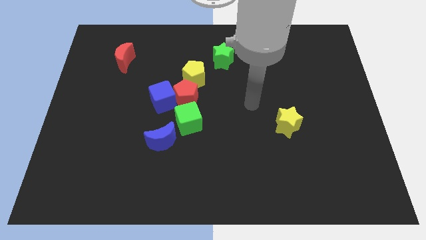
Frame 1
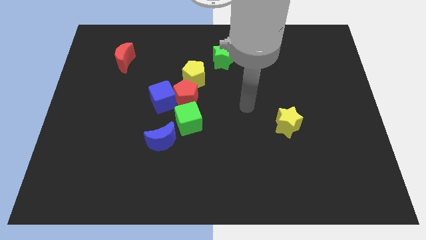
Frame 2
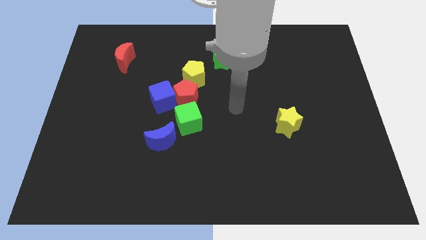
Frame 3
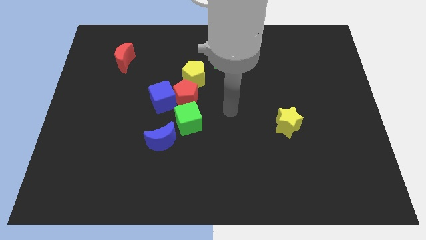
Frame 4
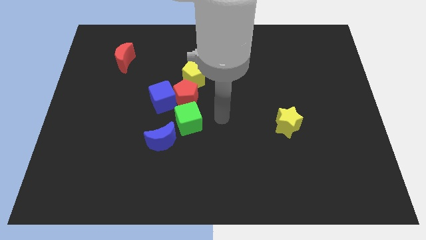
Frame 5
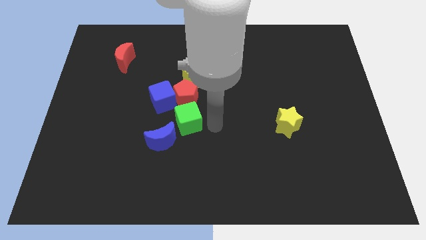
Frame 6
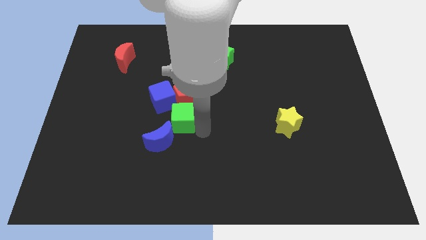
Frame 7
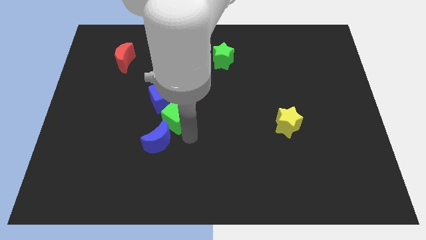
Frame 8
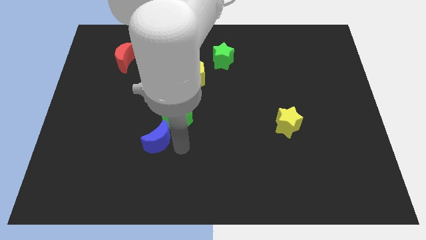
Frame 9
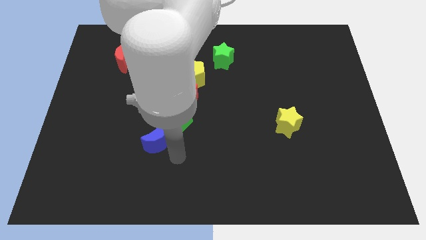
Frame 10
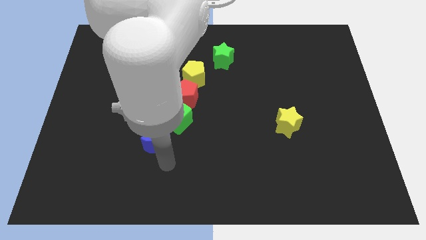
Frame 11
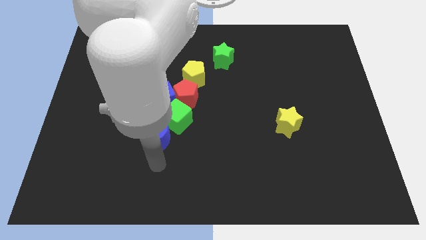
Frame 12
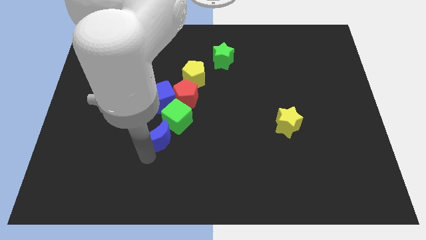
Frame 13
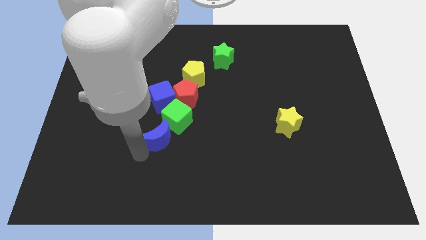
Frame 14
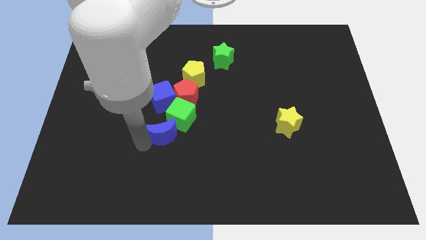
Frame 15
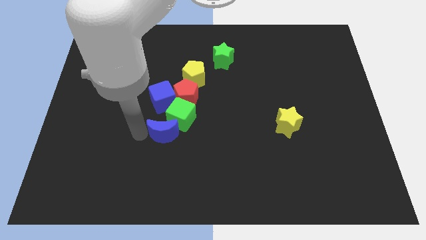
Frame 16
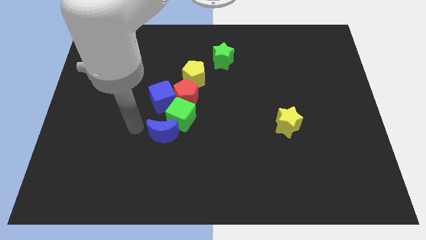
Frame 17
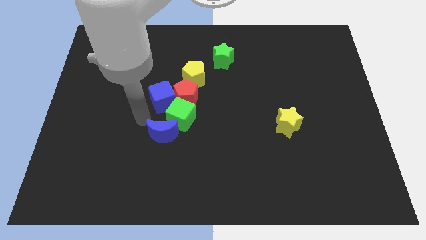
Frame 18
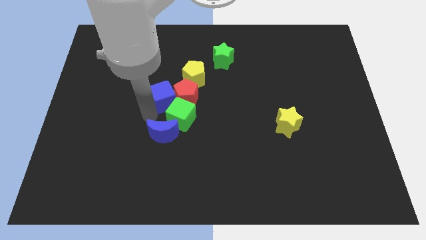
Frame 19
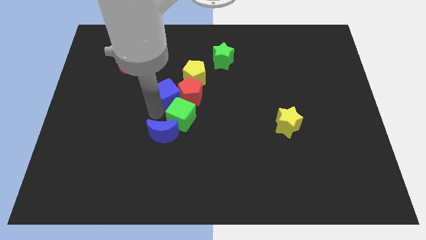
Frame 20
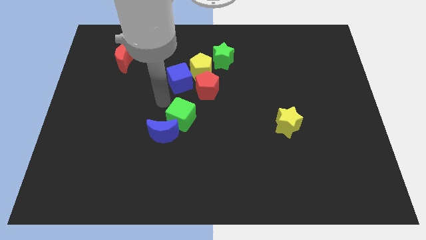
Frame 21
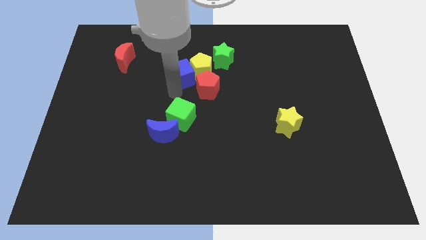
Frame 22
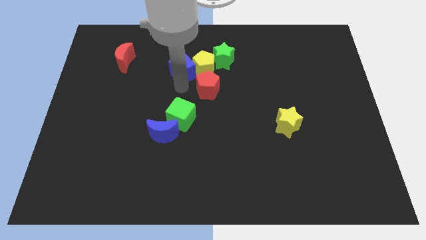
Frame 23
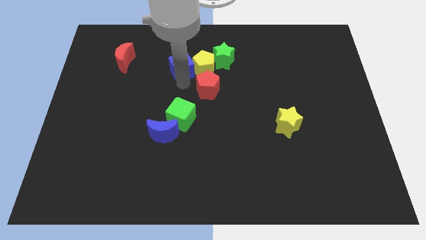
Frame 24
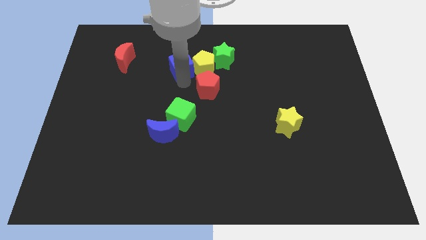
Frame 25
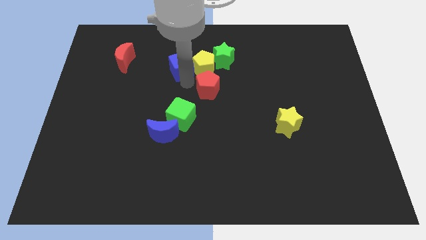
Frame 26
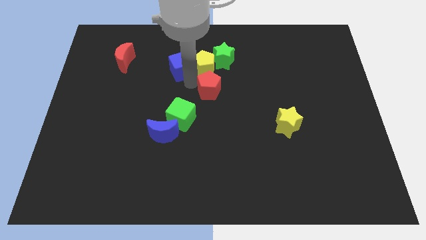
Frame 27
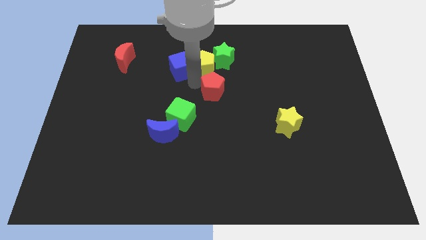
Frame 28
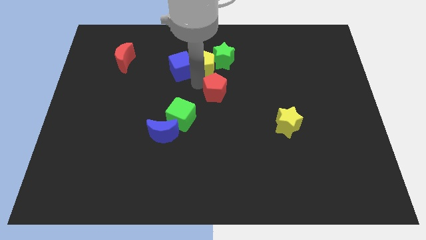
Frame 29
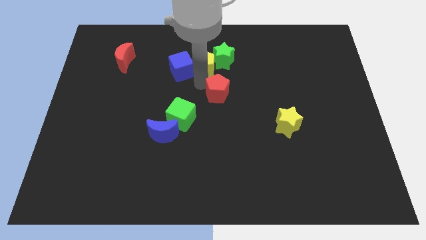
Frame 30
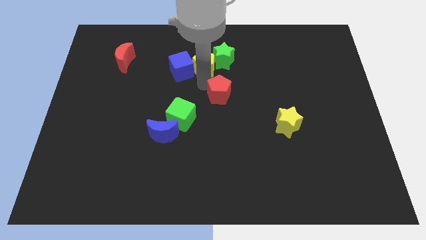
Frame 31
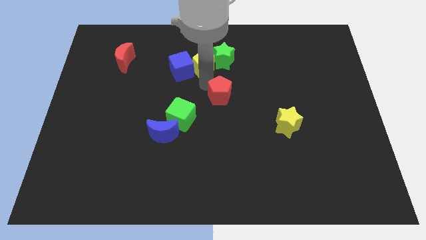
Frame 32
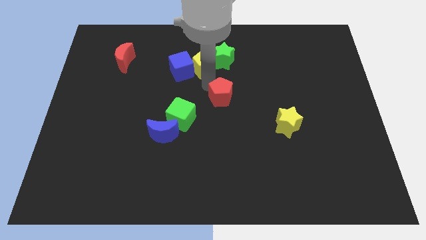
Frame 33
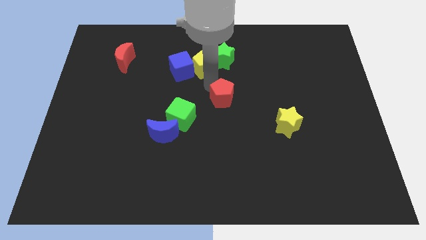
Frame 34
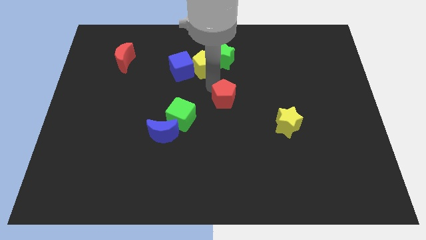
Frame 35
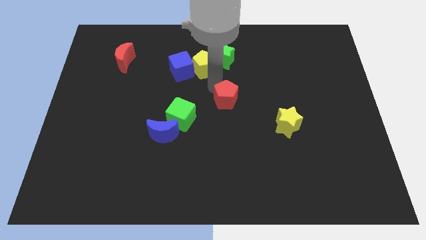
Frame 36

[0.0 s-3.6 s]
separate the red pentagon from the clump

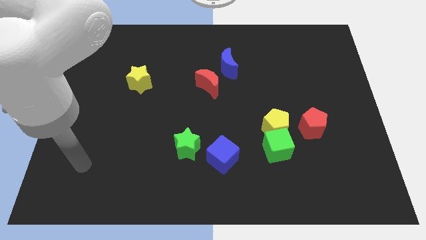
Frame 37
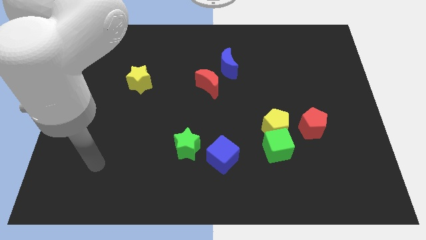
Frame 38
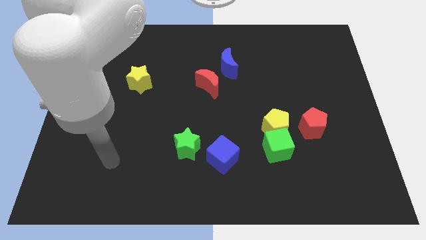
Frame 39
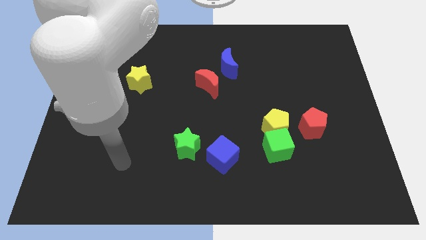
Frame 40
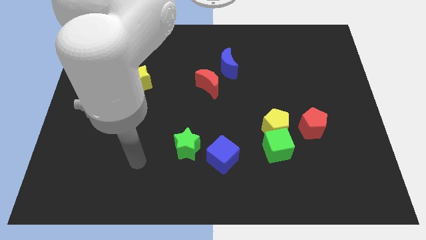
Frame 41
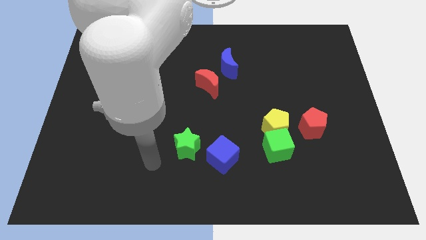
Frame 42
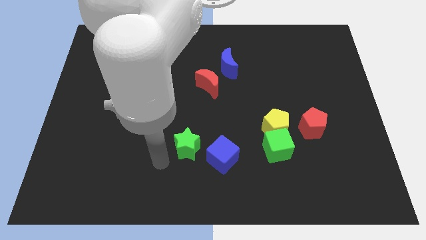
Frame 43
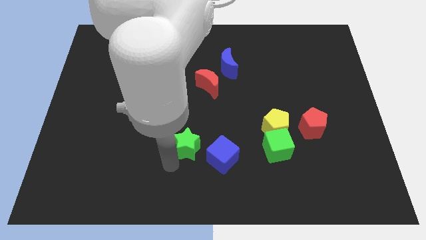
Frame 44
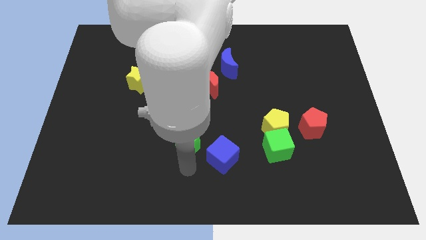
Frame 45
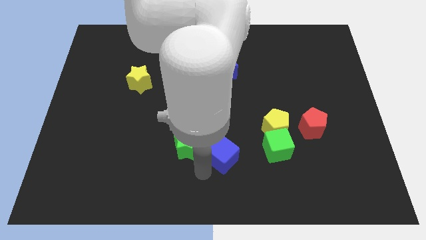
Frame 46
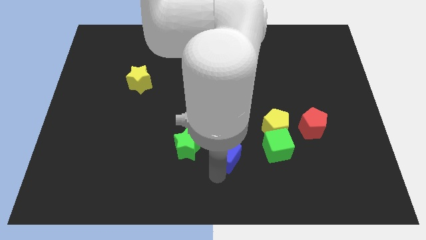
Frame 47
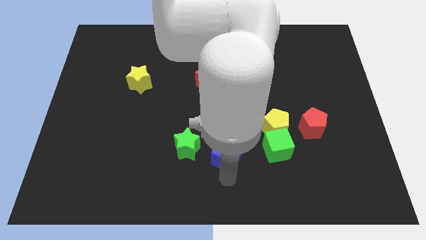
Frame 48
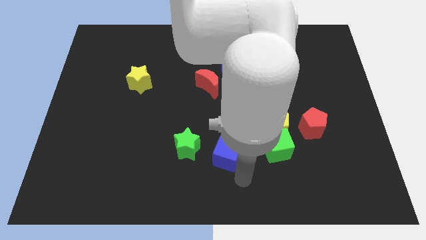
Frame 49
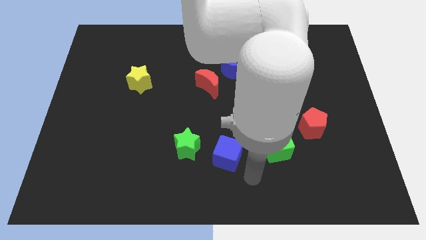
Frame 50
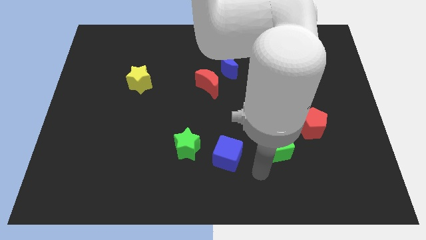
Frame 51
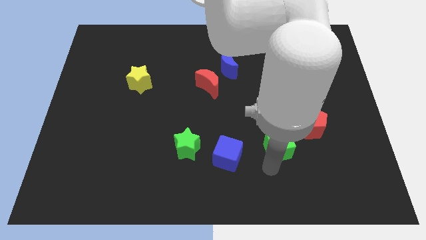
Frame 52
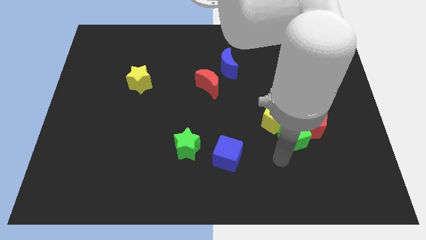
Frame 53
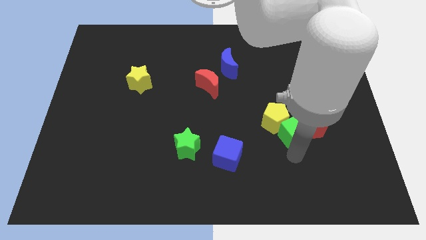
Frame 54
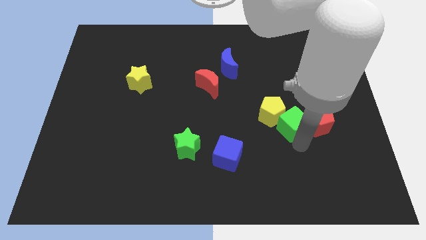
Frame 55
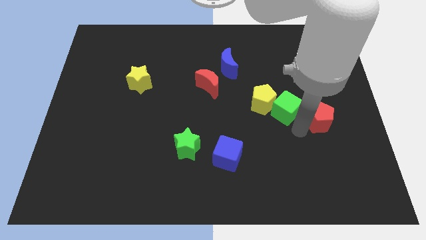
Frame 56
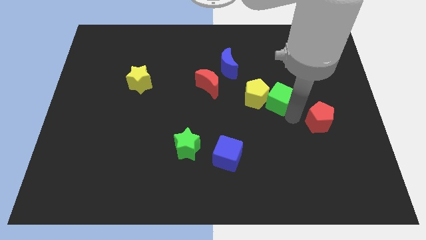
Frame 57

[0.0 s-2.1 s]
separate the yellow pentagon from the green cube and red pentagon

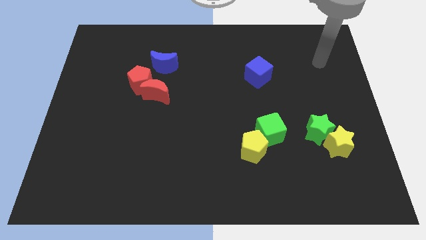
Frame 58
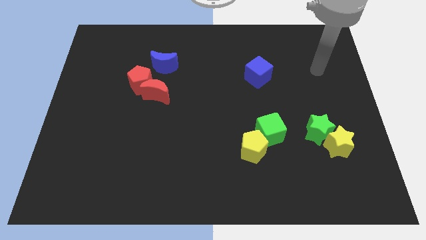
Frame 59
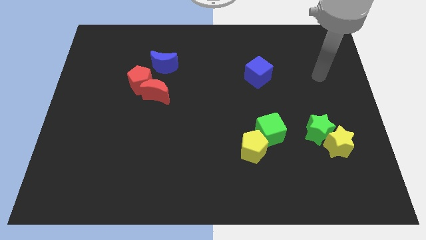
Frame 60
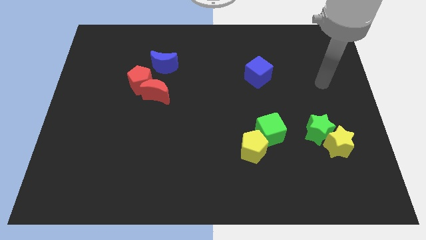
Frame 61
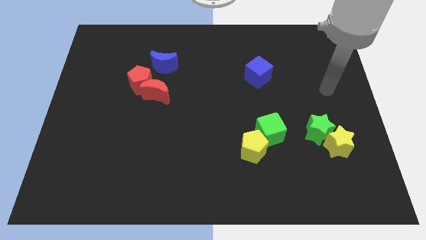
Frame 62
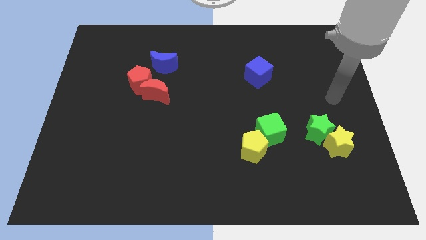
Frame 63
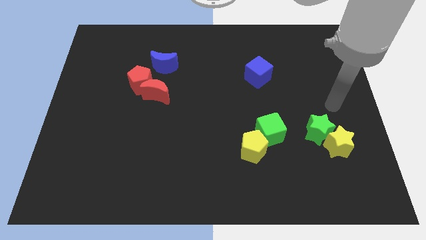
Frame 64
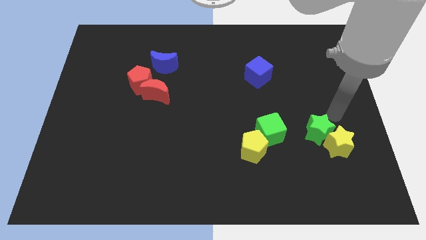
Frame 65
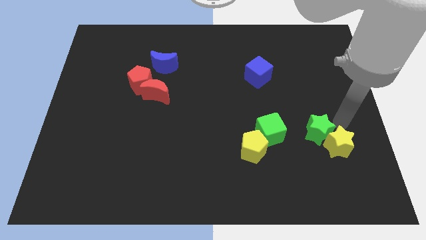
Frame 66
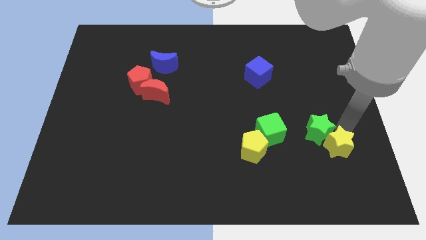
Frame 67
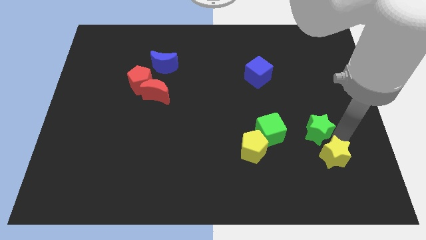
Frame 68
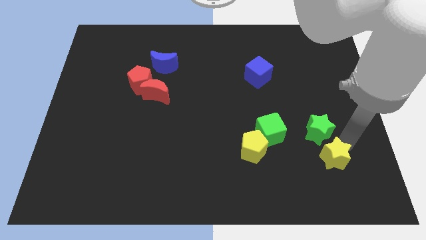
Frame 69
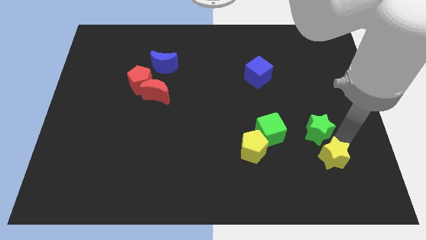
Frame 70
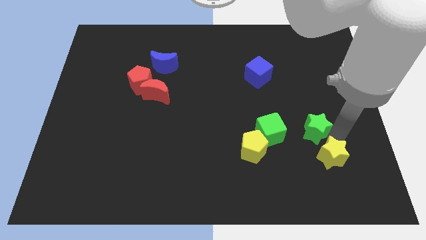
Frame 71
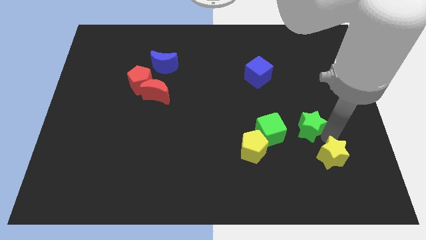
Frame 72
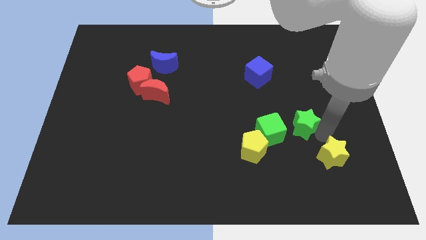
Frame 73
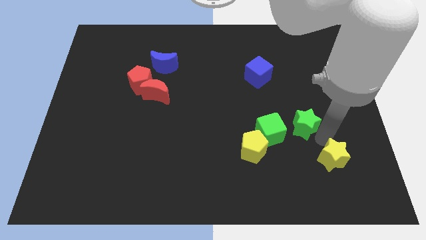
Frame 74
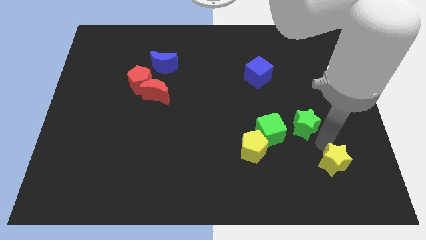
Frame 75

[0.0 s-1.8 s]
move the green star away from the yellow star

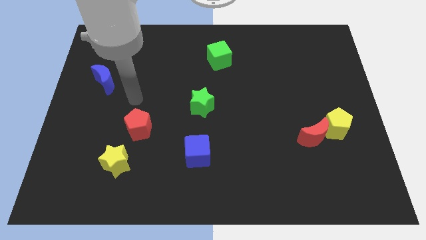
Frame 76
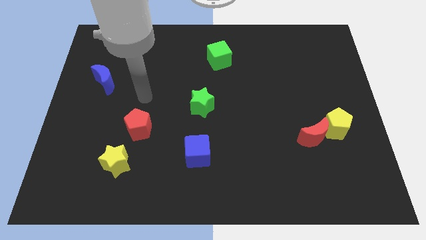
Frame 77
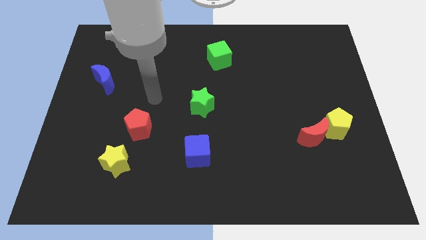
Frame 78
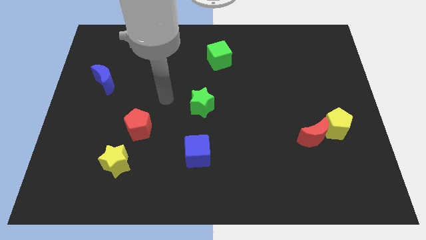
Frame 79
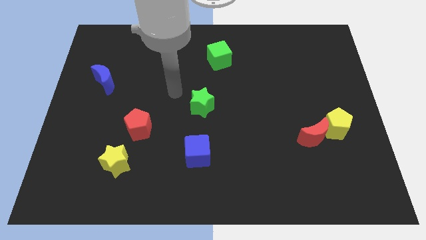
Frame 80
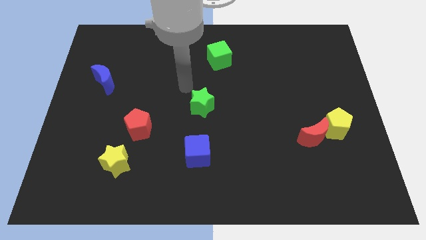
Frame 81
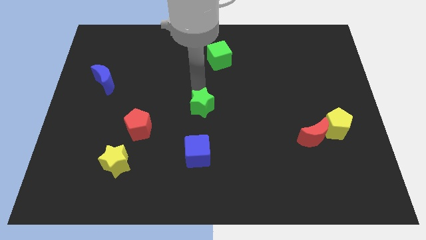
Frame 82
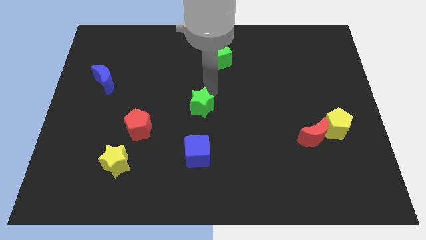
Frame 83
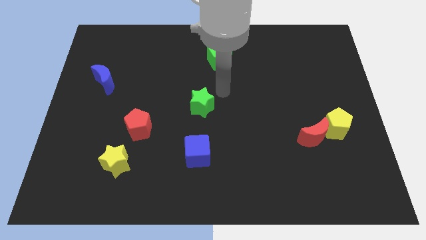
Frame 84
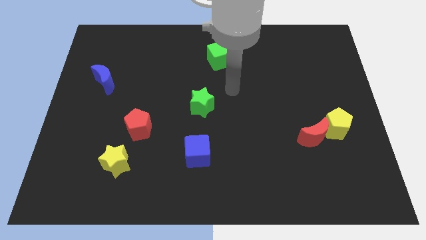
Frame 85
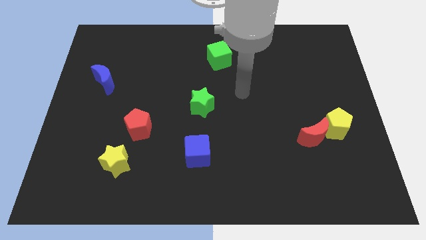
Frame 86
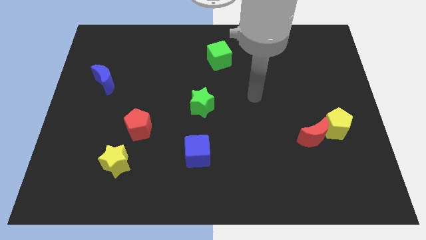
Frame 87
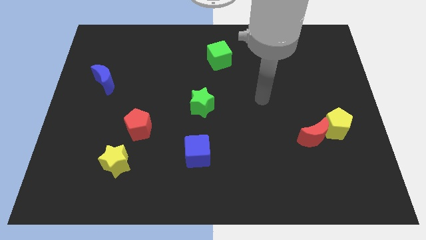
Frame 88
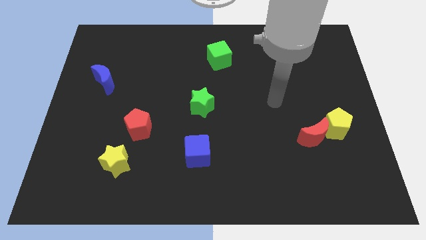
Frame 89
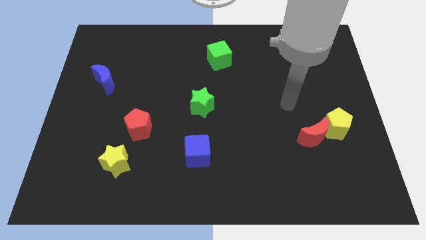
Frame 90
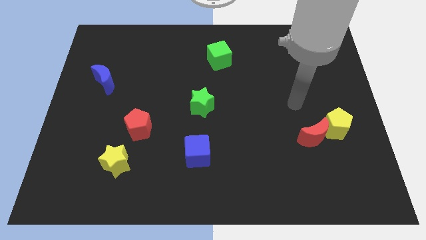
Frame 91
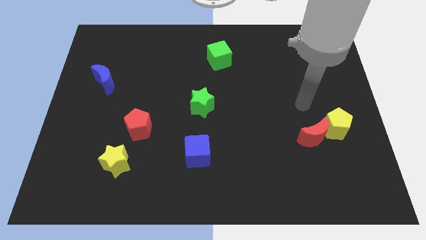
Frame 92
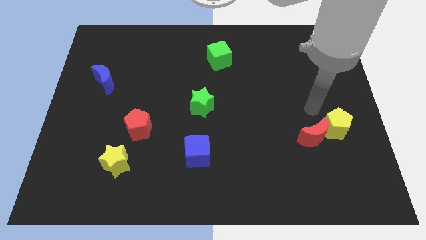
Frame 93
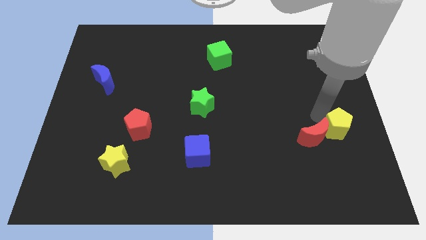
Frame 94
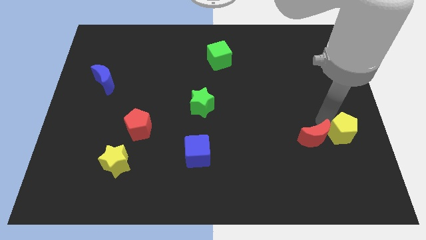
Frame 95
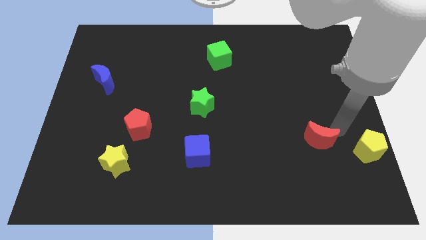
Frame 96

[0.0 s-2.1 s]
move the red moon away from the yellow pentagon
